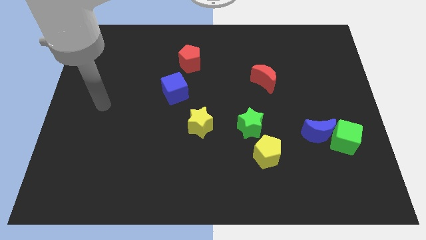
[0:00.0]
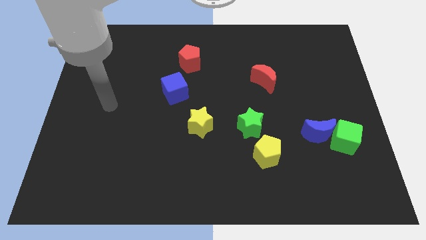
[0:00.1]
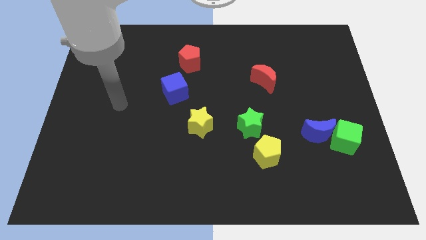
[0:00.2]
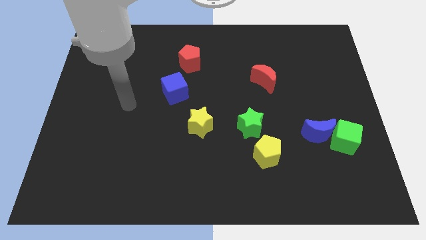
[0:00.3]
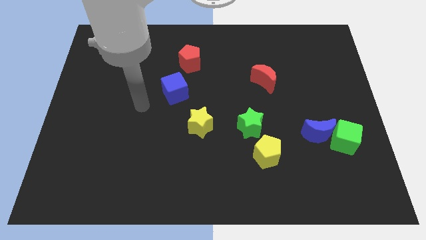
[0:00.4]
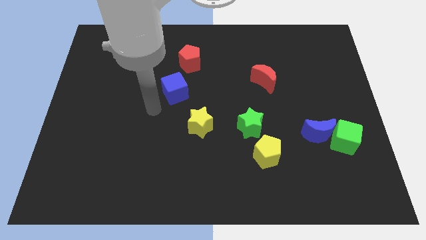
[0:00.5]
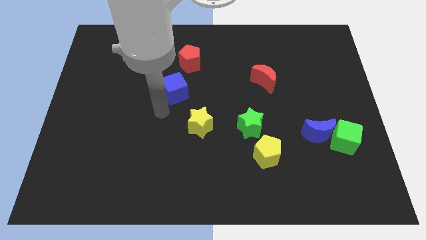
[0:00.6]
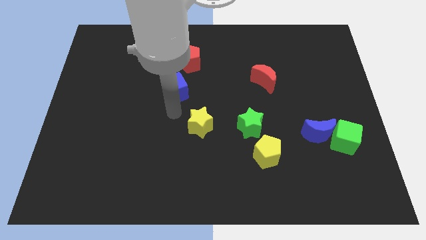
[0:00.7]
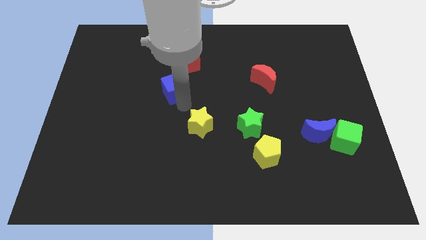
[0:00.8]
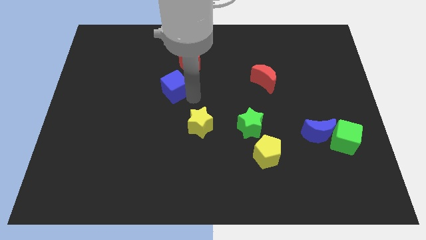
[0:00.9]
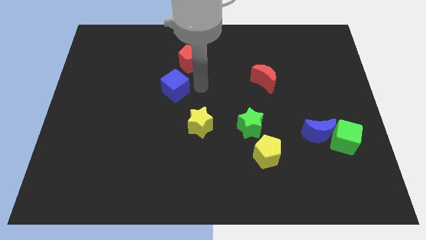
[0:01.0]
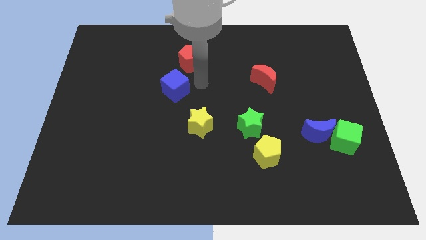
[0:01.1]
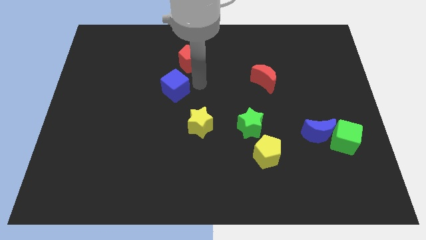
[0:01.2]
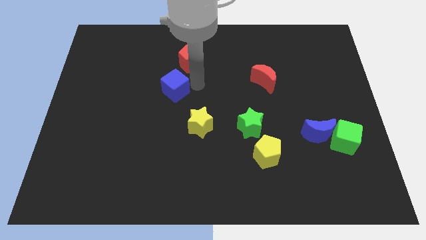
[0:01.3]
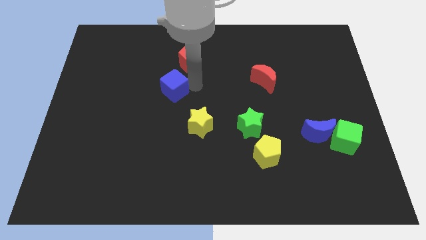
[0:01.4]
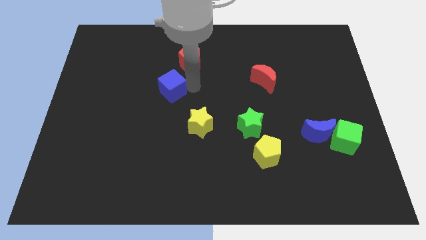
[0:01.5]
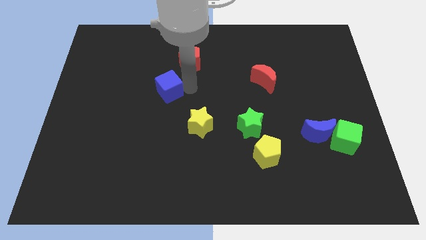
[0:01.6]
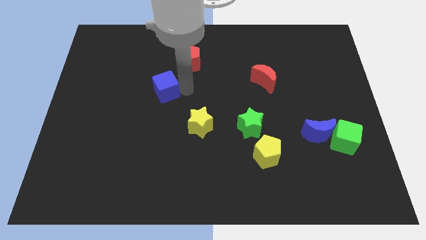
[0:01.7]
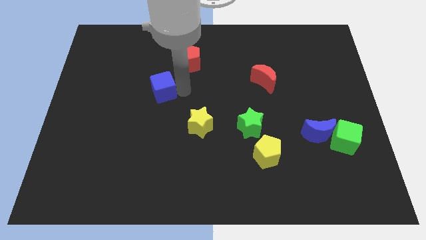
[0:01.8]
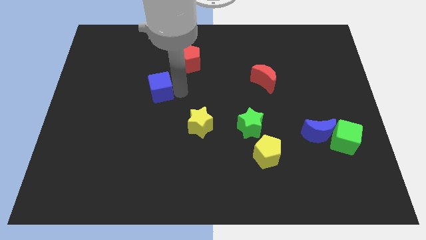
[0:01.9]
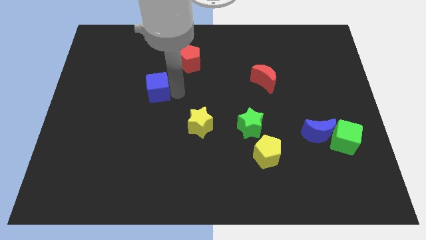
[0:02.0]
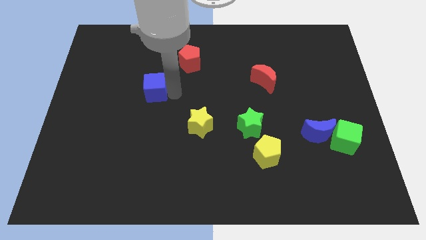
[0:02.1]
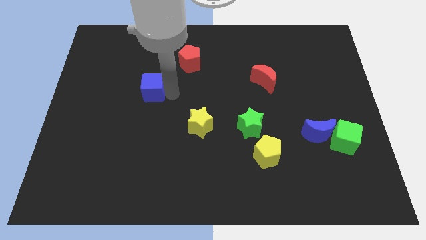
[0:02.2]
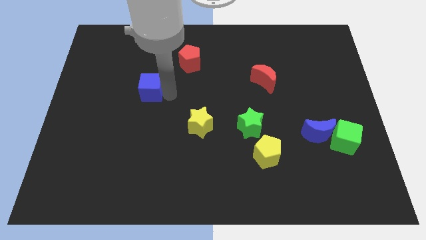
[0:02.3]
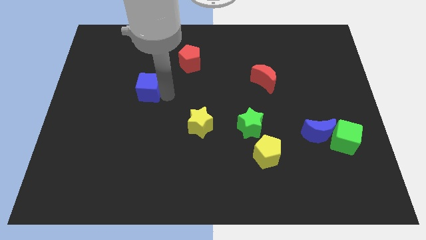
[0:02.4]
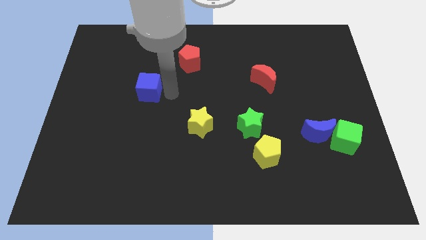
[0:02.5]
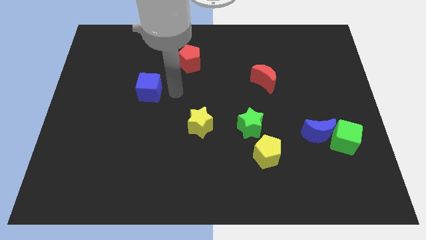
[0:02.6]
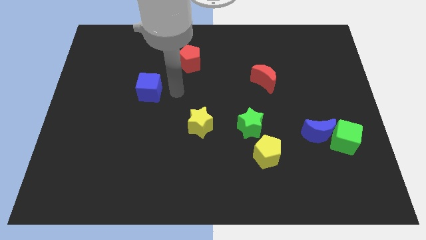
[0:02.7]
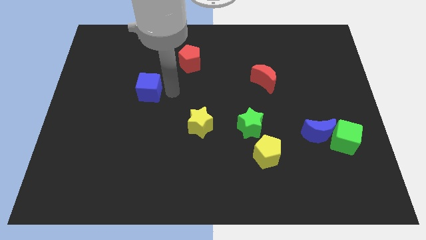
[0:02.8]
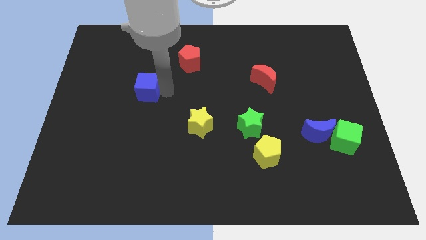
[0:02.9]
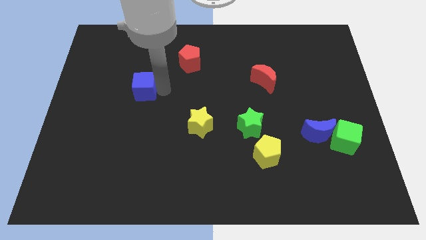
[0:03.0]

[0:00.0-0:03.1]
slide the blue cube to the left slightly

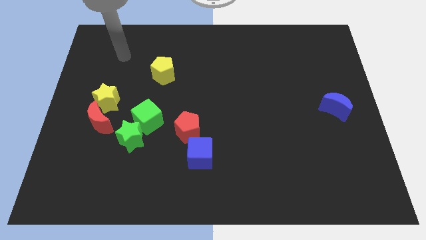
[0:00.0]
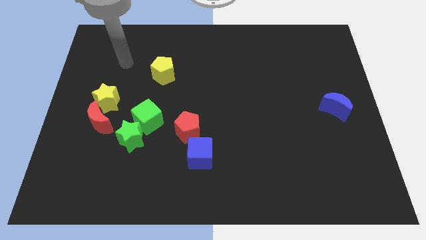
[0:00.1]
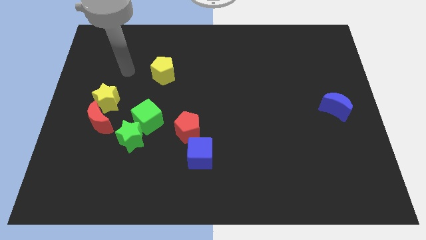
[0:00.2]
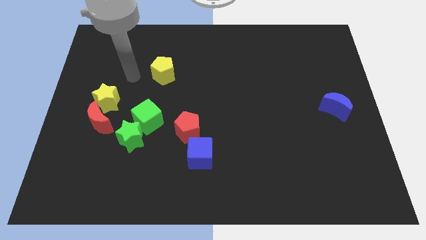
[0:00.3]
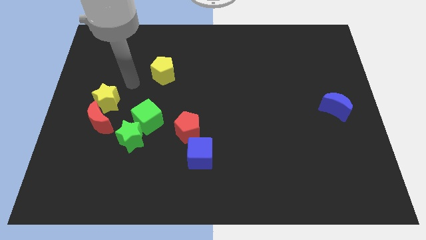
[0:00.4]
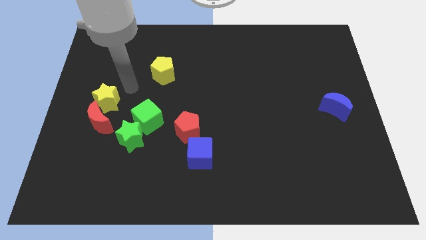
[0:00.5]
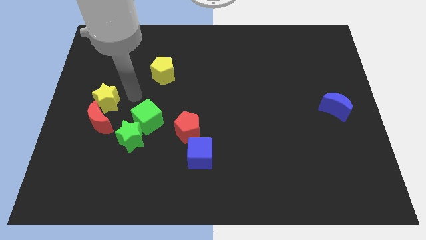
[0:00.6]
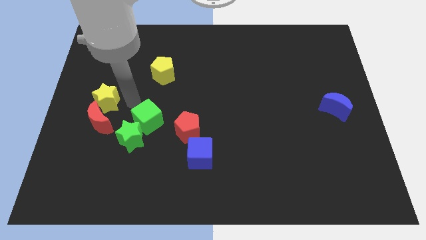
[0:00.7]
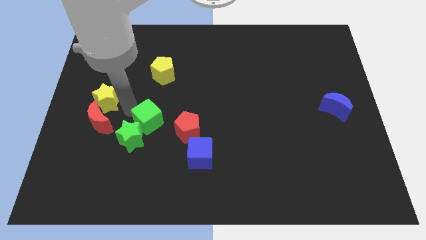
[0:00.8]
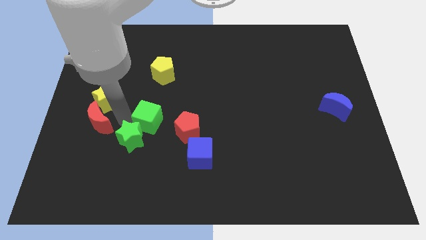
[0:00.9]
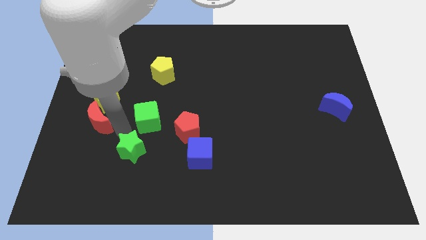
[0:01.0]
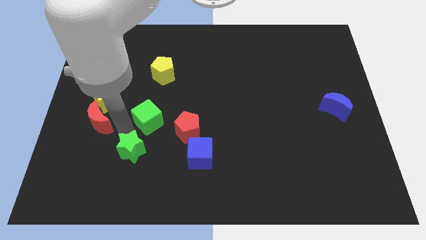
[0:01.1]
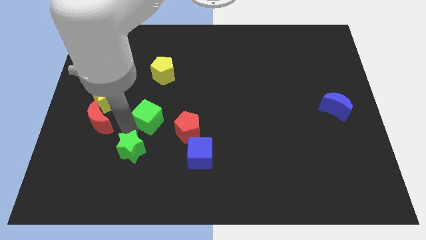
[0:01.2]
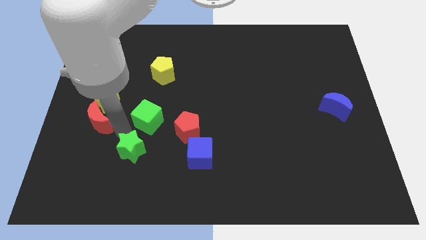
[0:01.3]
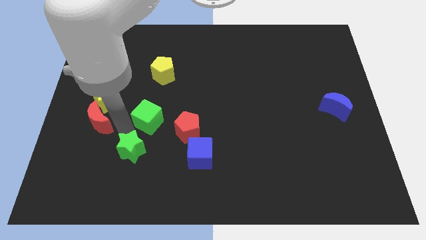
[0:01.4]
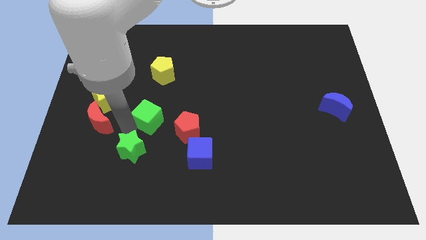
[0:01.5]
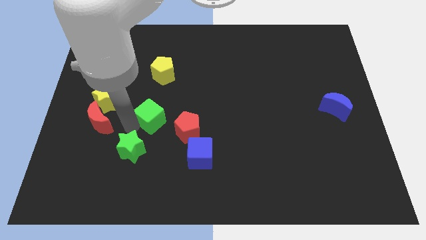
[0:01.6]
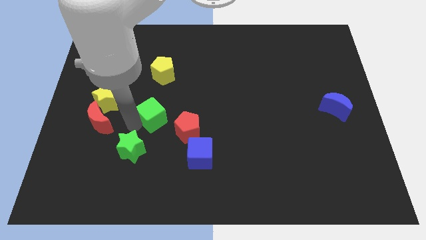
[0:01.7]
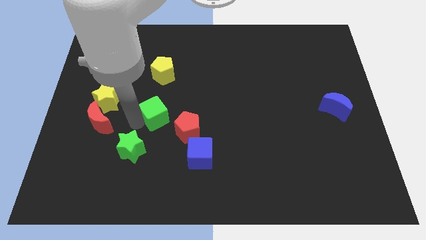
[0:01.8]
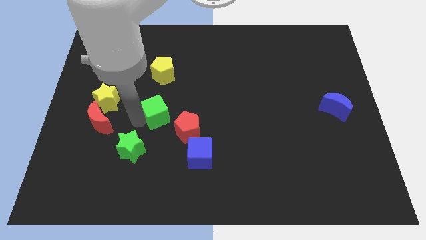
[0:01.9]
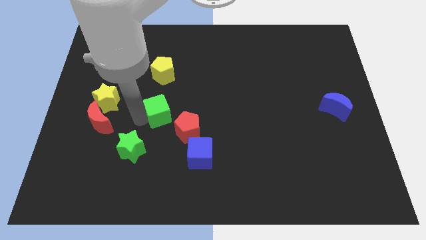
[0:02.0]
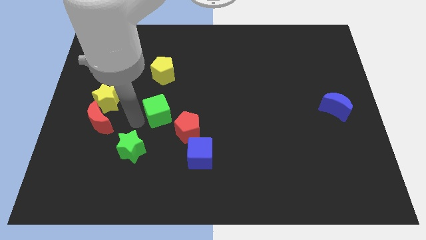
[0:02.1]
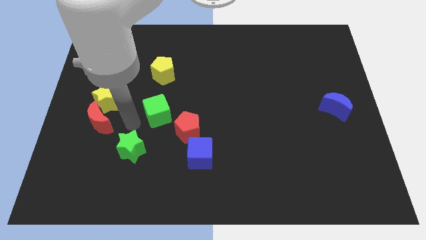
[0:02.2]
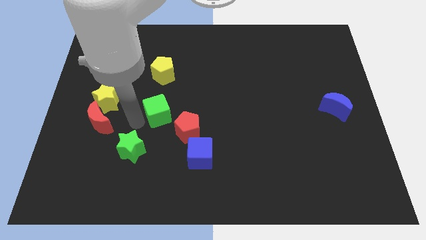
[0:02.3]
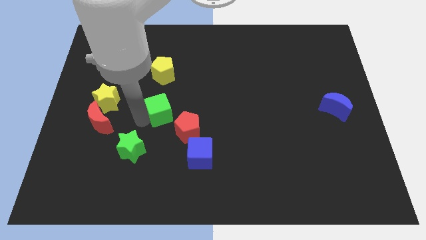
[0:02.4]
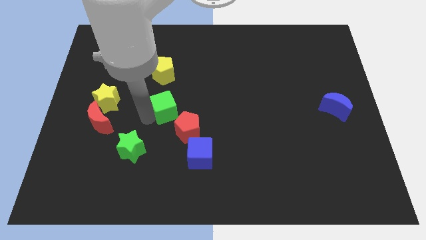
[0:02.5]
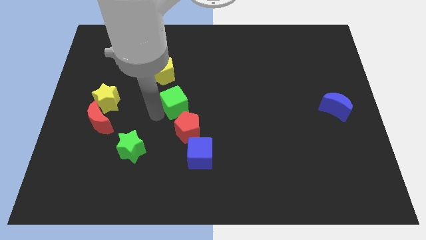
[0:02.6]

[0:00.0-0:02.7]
push the green cube slightly up and then right

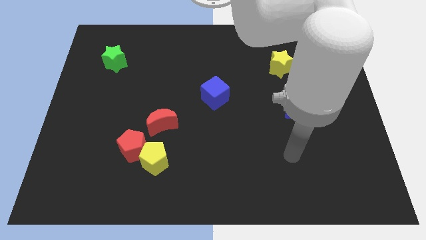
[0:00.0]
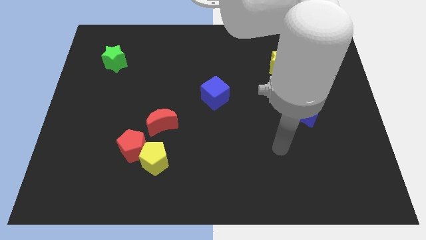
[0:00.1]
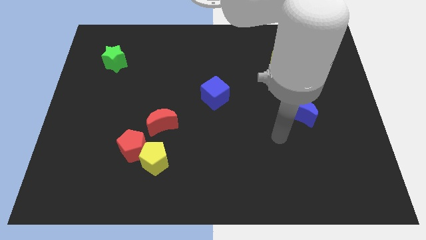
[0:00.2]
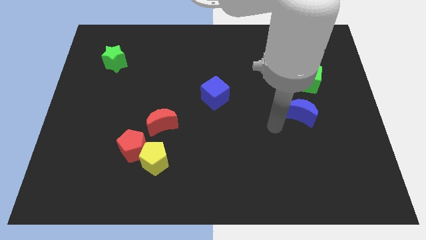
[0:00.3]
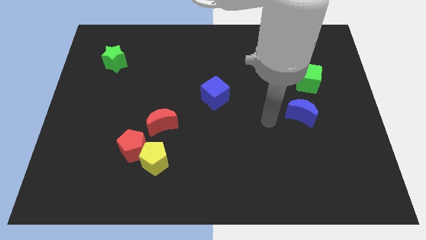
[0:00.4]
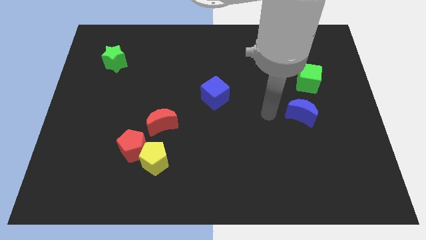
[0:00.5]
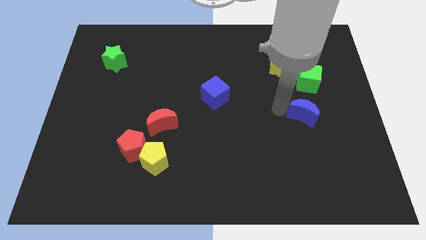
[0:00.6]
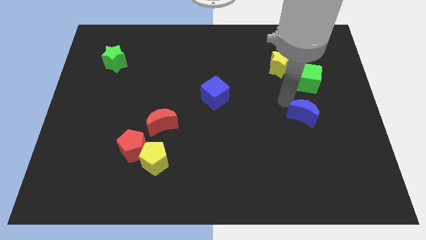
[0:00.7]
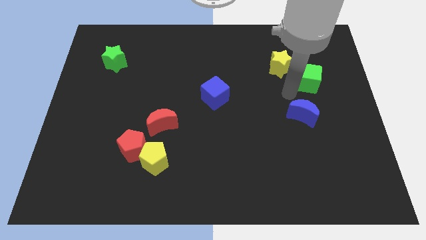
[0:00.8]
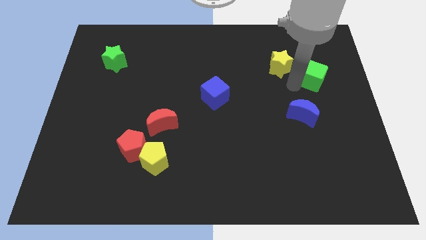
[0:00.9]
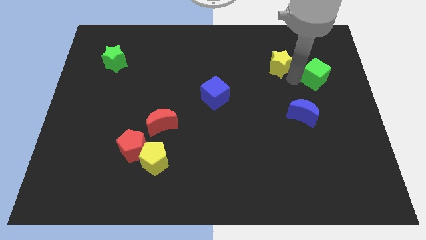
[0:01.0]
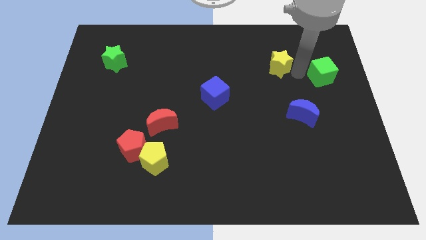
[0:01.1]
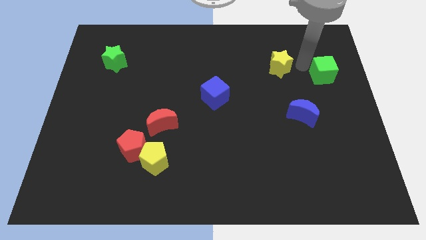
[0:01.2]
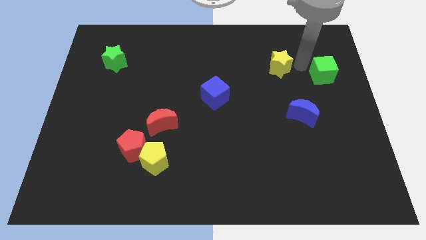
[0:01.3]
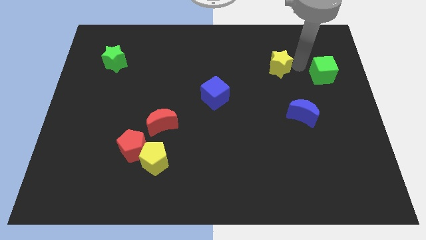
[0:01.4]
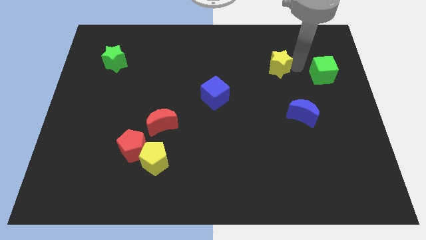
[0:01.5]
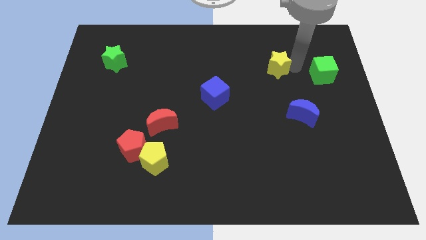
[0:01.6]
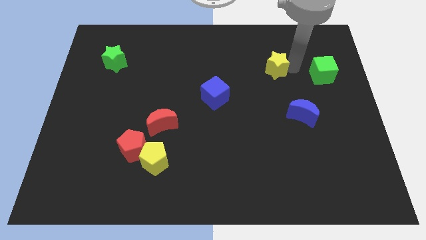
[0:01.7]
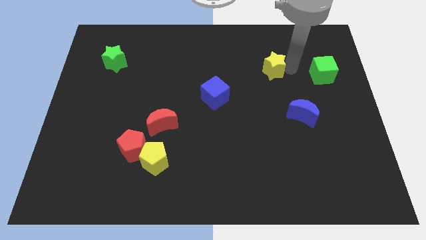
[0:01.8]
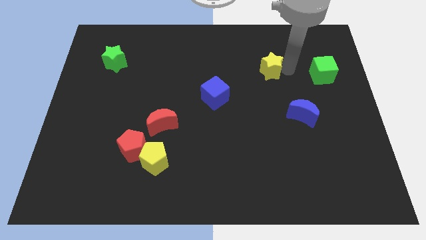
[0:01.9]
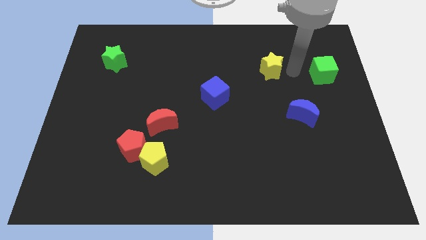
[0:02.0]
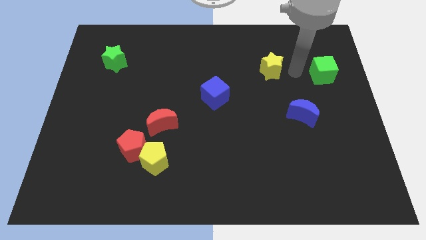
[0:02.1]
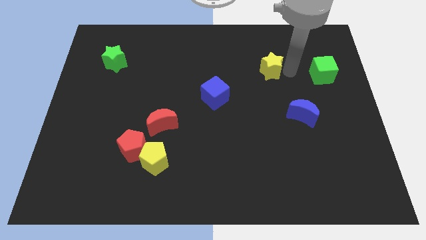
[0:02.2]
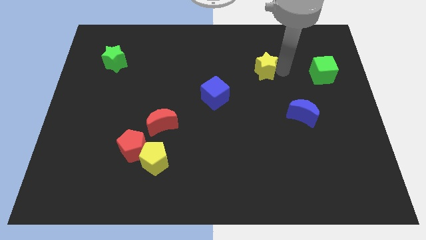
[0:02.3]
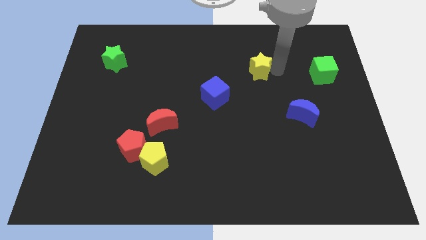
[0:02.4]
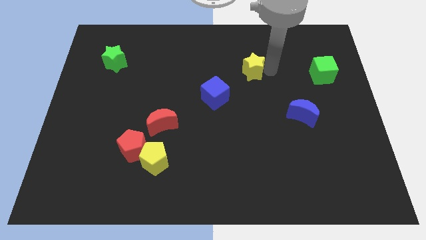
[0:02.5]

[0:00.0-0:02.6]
slightly push the yellow star left
